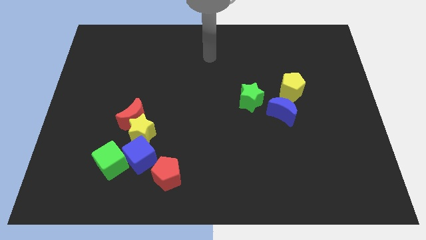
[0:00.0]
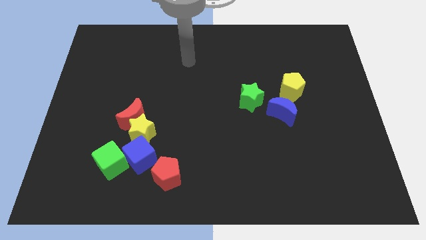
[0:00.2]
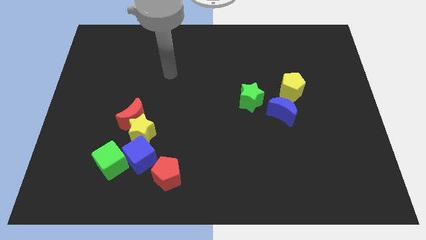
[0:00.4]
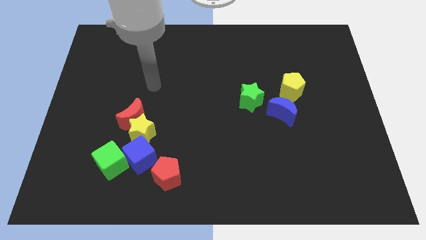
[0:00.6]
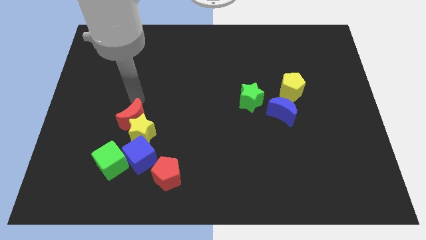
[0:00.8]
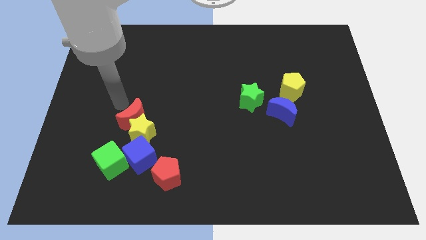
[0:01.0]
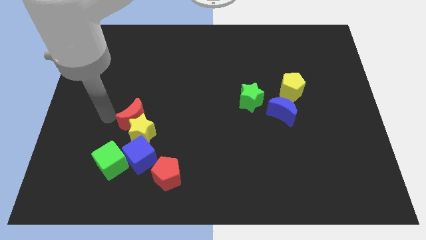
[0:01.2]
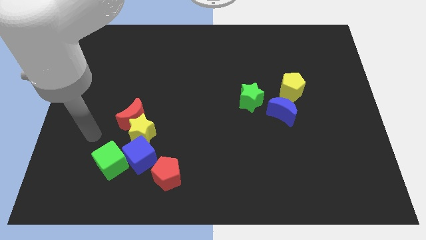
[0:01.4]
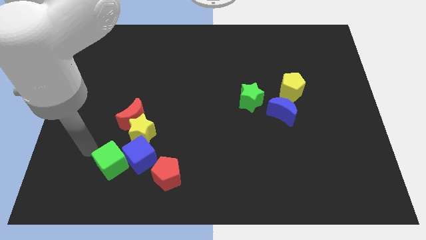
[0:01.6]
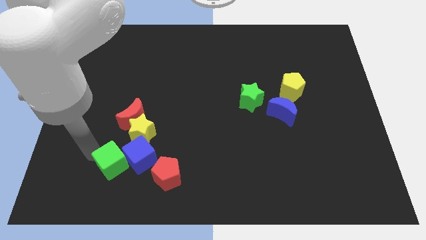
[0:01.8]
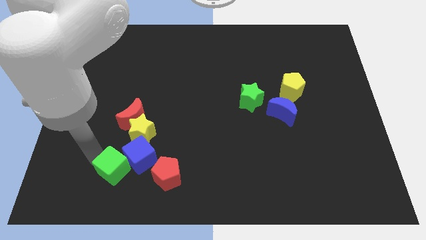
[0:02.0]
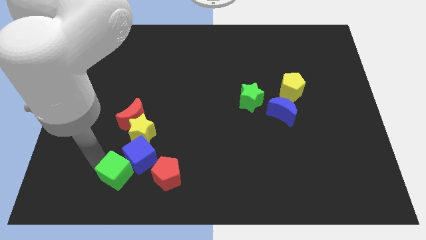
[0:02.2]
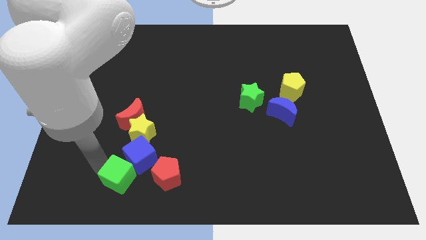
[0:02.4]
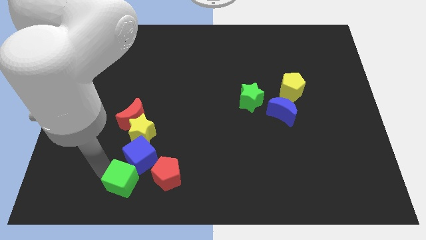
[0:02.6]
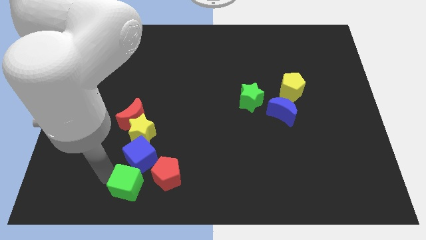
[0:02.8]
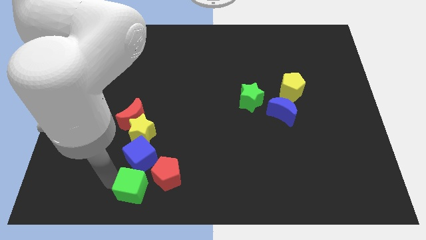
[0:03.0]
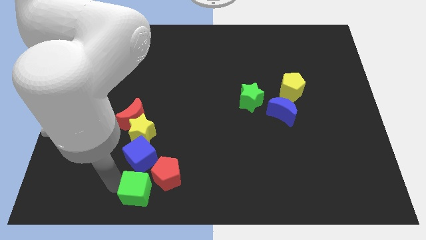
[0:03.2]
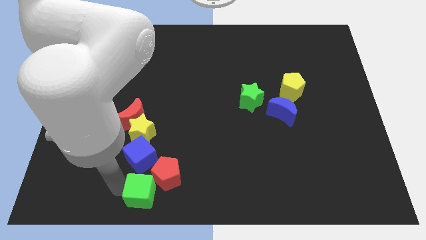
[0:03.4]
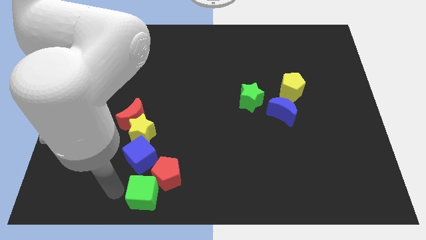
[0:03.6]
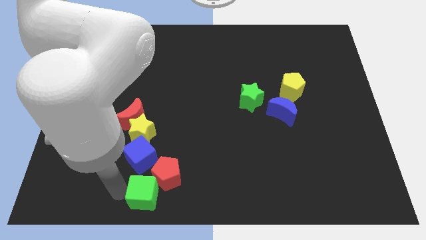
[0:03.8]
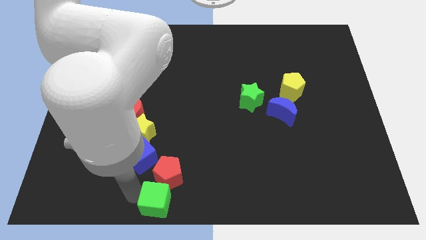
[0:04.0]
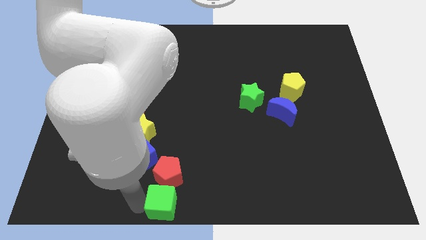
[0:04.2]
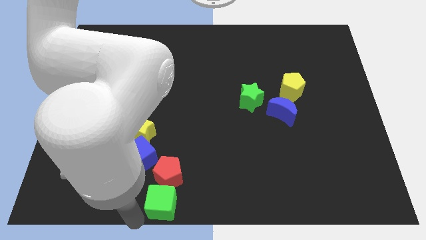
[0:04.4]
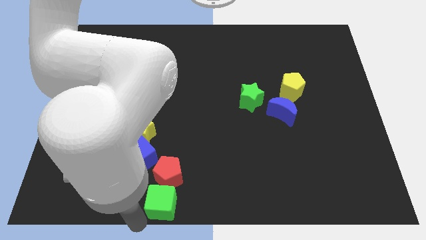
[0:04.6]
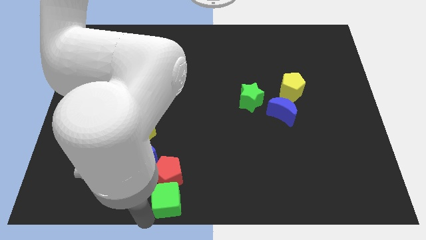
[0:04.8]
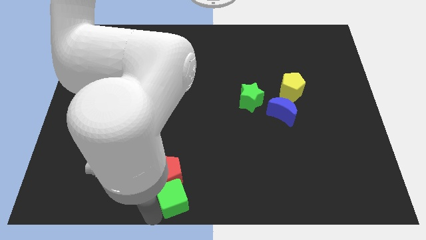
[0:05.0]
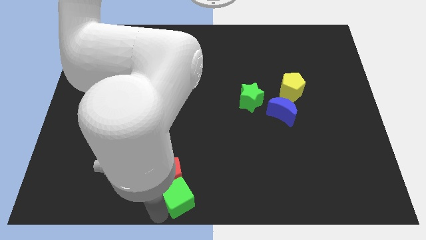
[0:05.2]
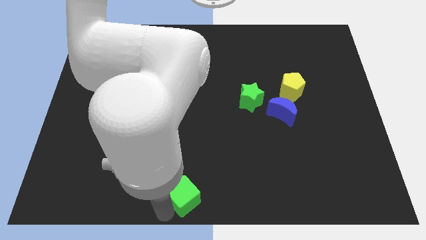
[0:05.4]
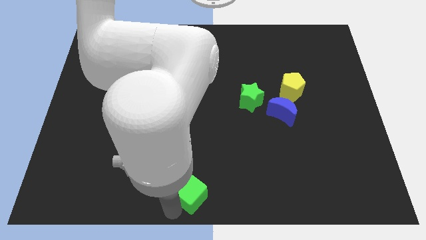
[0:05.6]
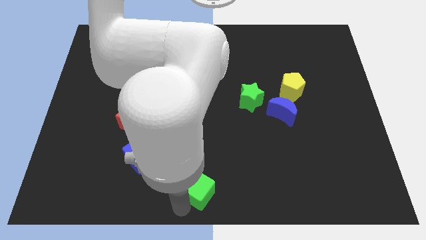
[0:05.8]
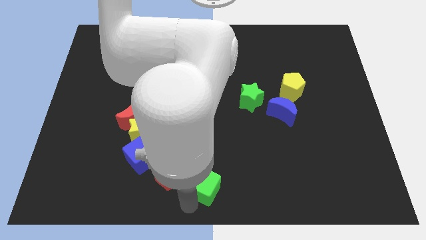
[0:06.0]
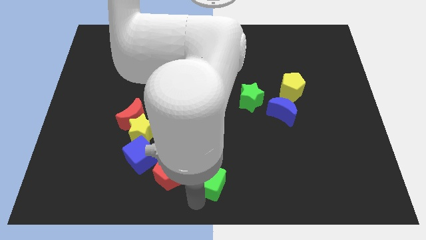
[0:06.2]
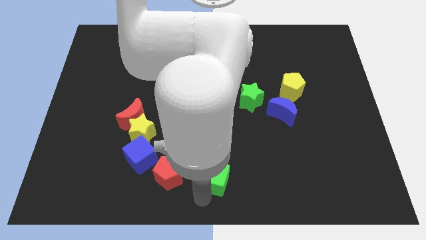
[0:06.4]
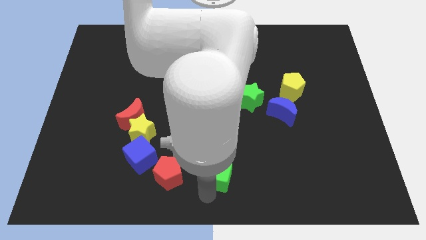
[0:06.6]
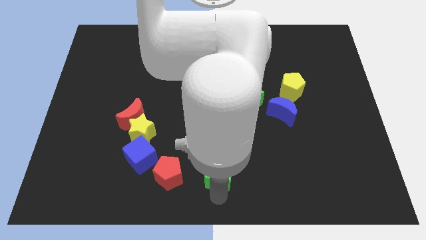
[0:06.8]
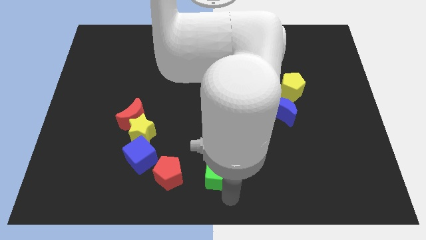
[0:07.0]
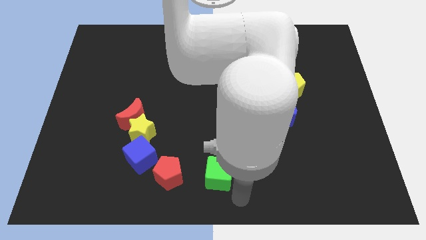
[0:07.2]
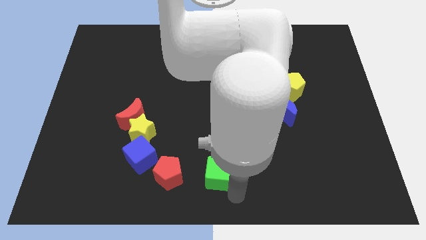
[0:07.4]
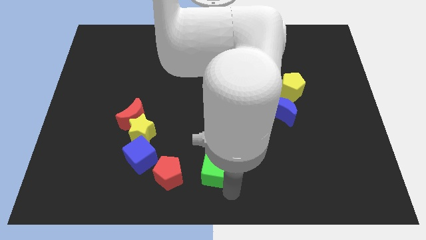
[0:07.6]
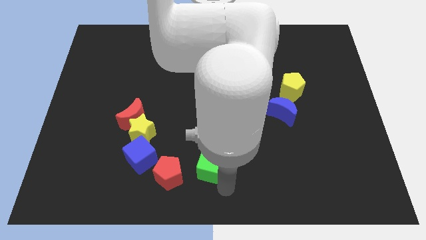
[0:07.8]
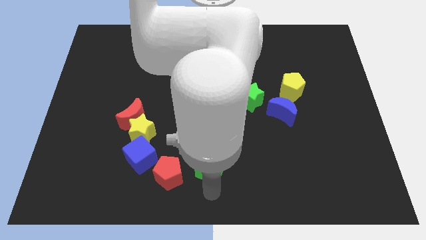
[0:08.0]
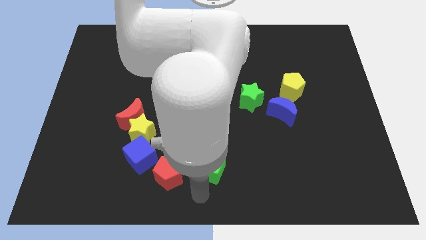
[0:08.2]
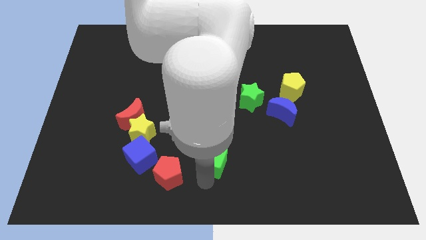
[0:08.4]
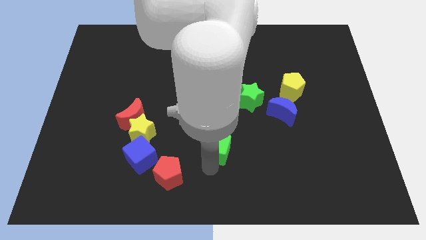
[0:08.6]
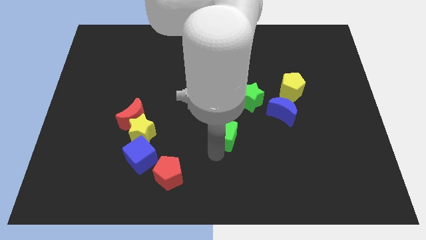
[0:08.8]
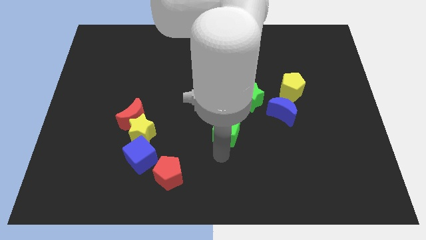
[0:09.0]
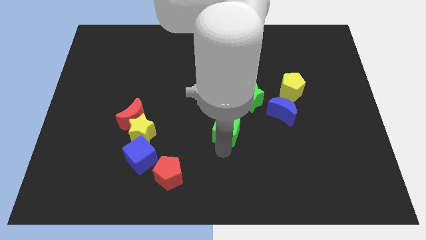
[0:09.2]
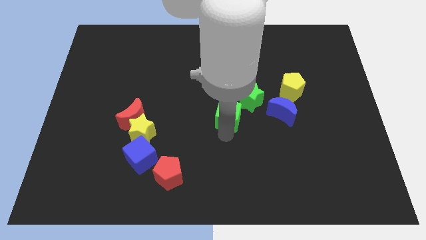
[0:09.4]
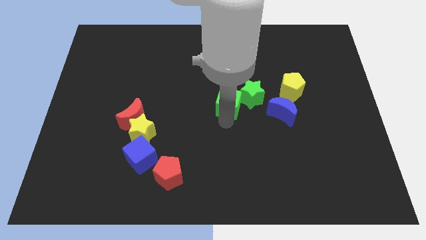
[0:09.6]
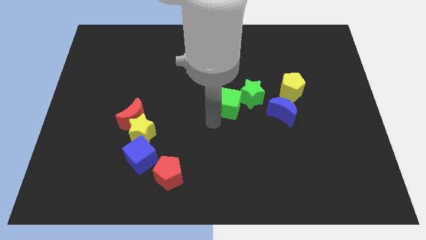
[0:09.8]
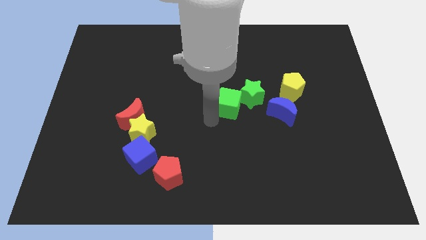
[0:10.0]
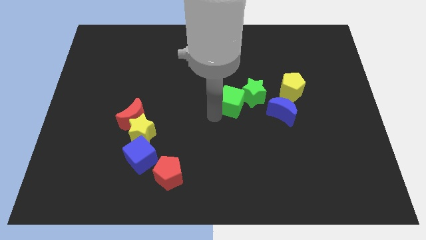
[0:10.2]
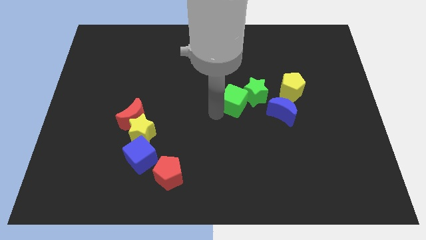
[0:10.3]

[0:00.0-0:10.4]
put the green cube left of the yellow pentagon

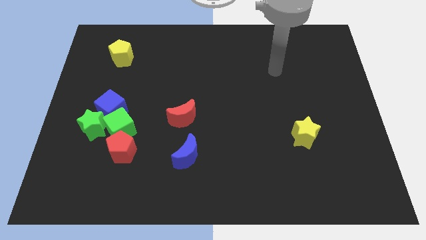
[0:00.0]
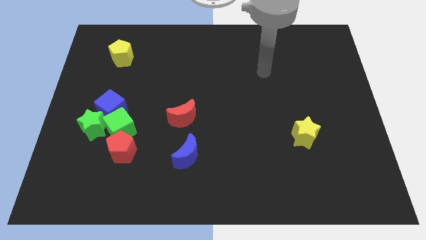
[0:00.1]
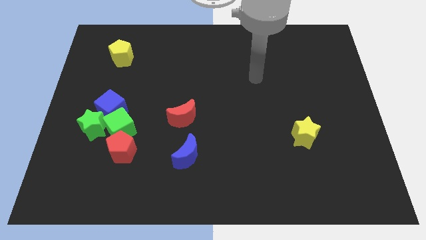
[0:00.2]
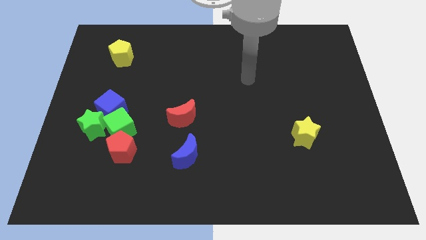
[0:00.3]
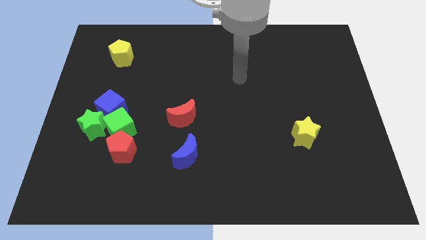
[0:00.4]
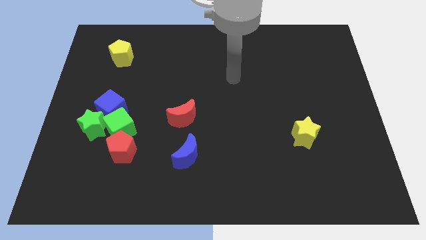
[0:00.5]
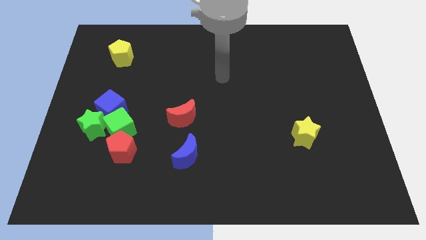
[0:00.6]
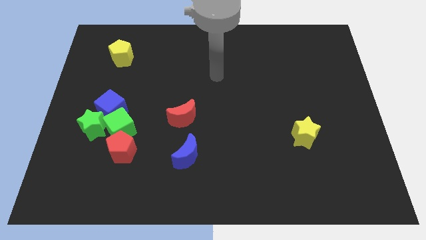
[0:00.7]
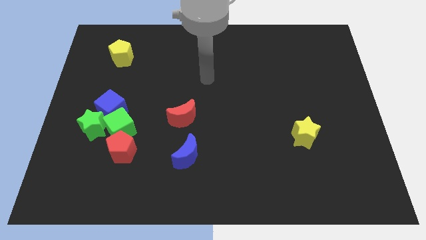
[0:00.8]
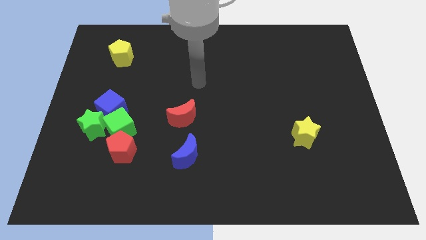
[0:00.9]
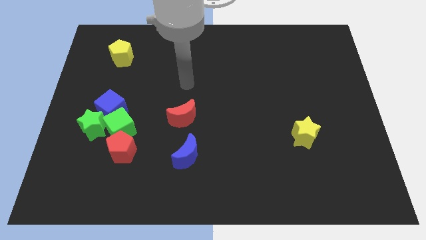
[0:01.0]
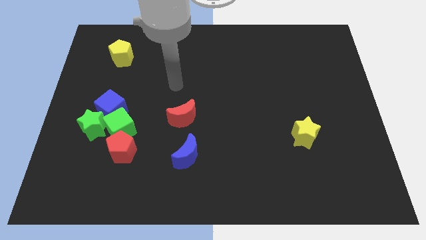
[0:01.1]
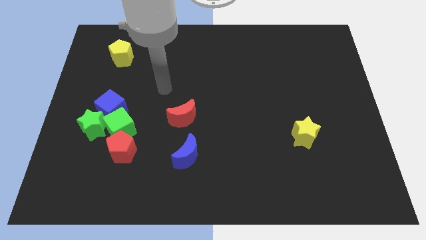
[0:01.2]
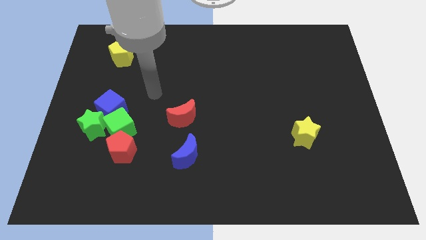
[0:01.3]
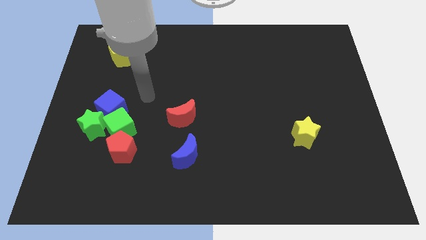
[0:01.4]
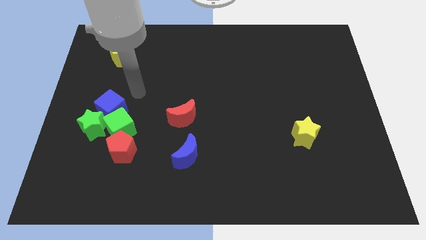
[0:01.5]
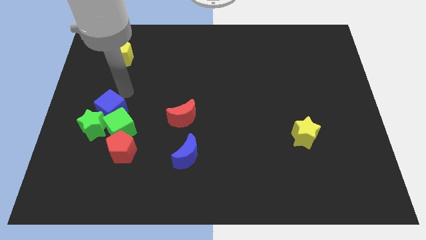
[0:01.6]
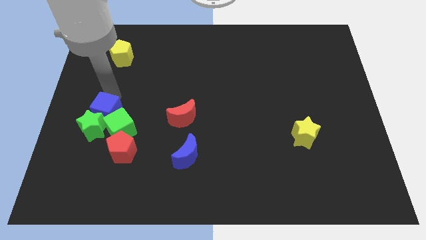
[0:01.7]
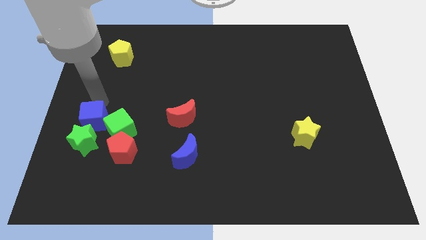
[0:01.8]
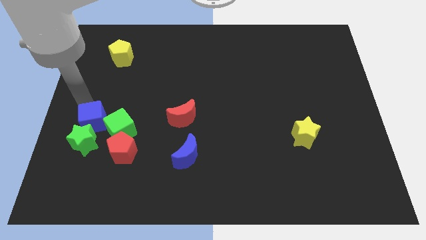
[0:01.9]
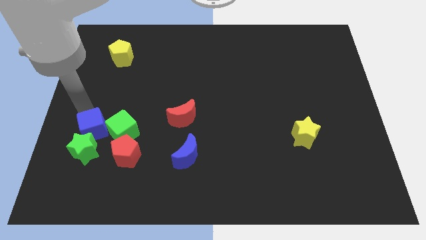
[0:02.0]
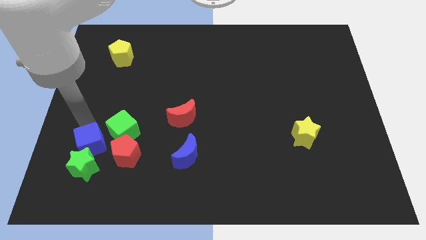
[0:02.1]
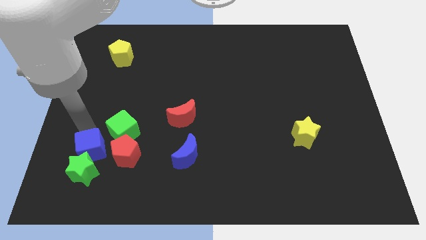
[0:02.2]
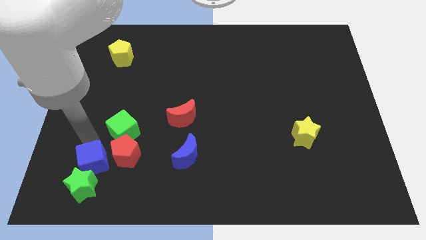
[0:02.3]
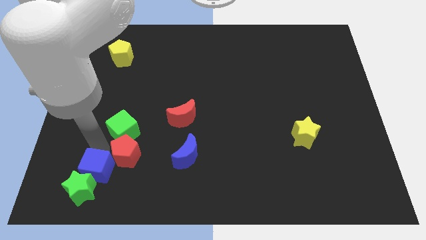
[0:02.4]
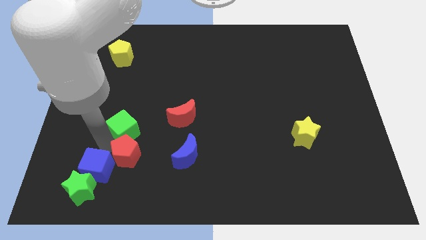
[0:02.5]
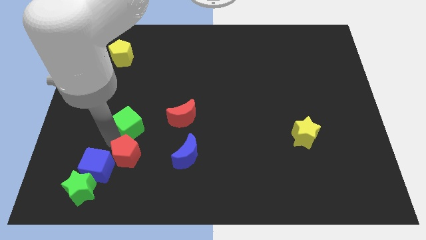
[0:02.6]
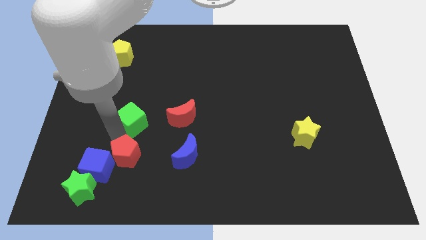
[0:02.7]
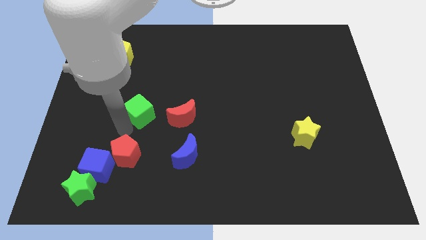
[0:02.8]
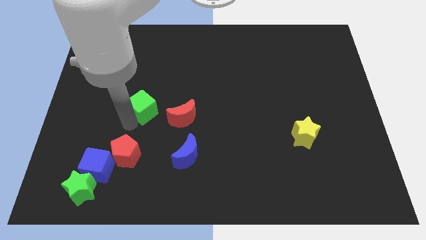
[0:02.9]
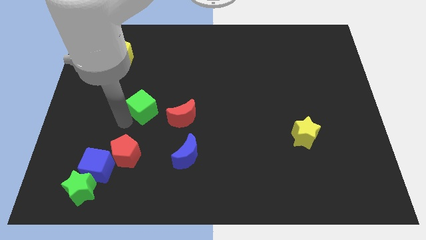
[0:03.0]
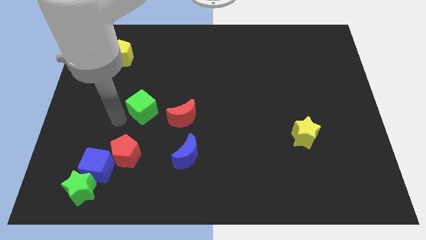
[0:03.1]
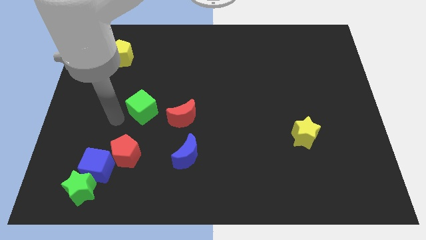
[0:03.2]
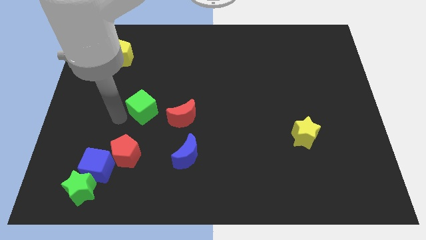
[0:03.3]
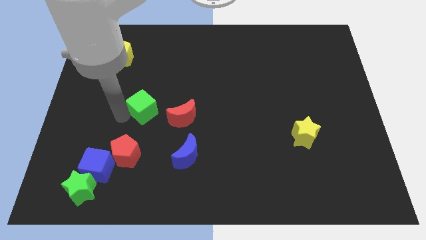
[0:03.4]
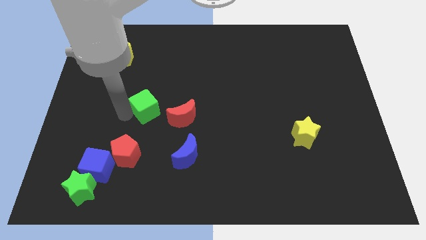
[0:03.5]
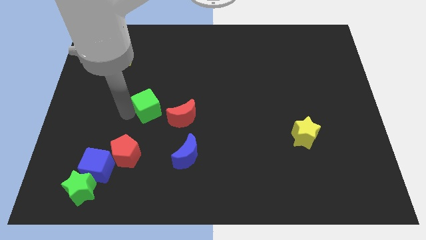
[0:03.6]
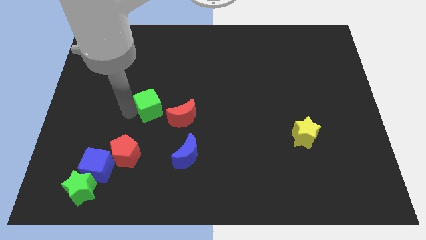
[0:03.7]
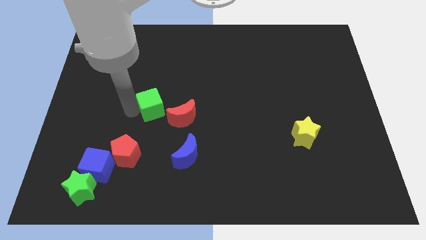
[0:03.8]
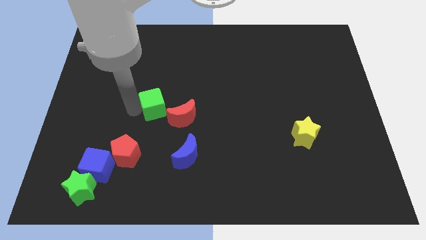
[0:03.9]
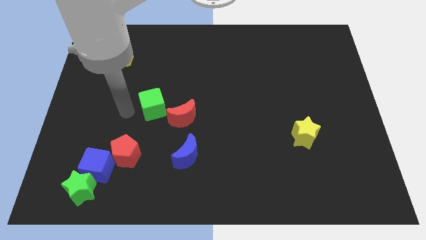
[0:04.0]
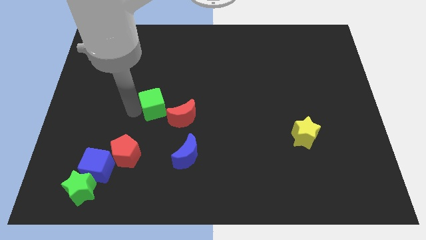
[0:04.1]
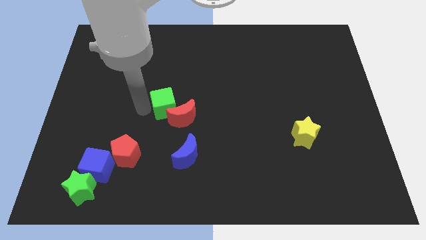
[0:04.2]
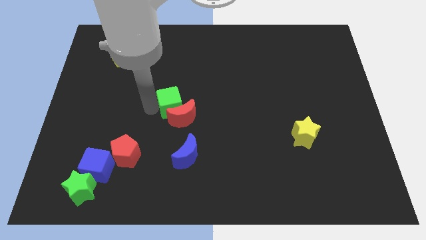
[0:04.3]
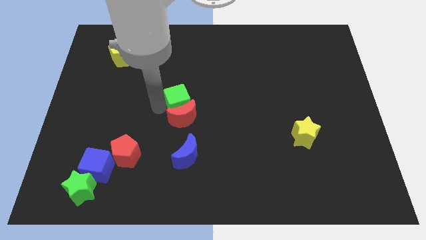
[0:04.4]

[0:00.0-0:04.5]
slide the green cube to the top right side of the red moon
